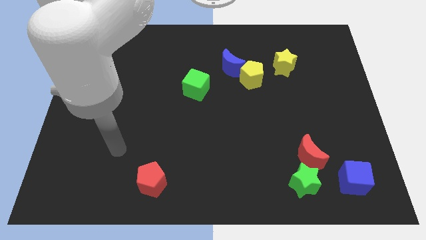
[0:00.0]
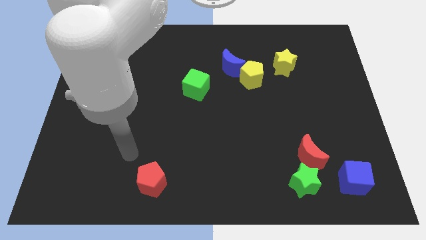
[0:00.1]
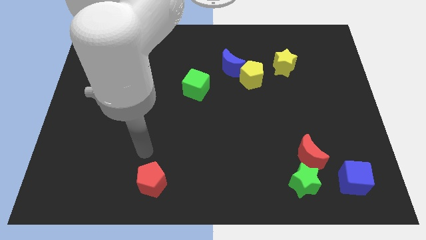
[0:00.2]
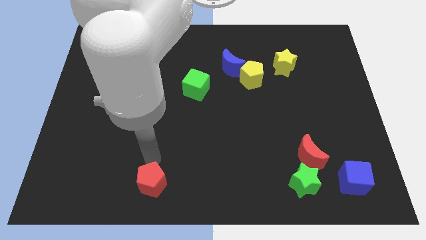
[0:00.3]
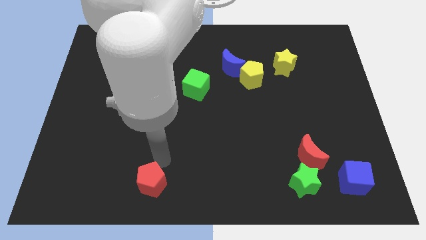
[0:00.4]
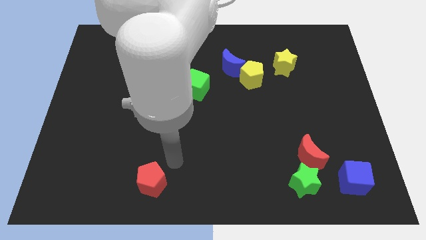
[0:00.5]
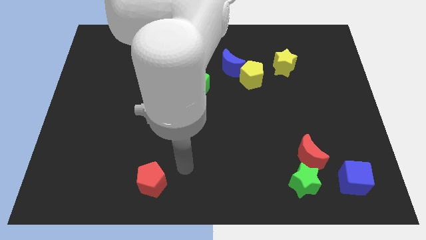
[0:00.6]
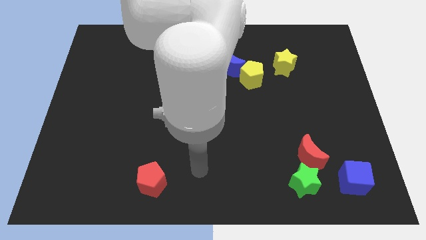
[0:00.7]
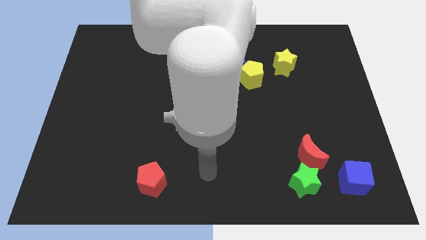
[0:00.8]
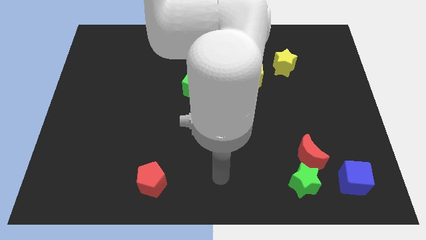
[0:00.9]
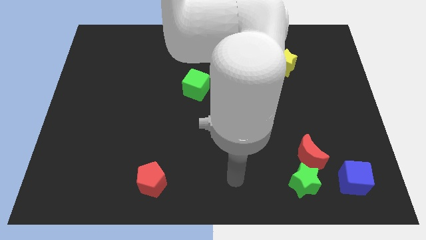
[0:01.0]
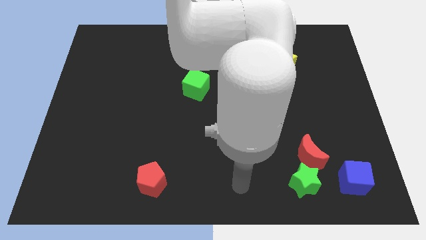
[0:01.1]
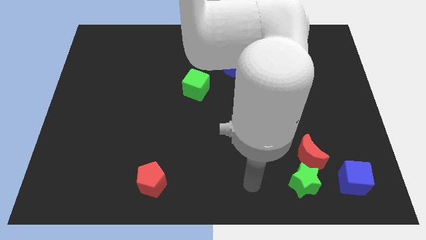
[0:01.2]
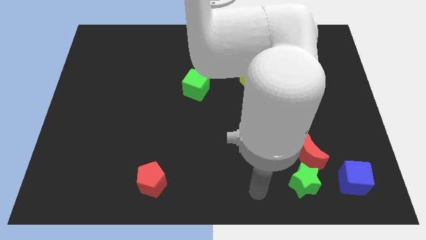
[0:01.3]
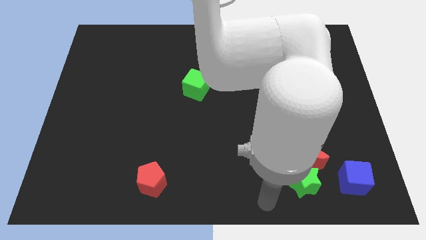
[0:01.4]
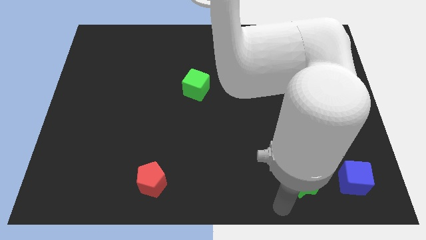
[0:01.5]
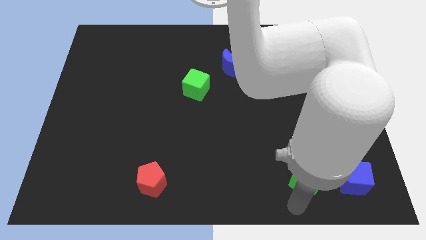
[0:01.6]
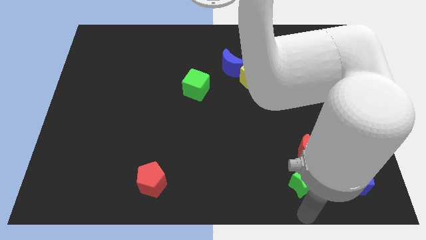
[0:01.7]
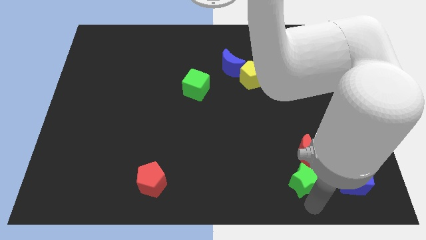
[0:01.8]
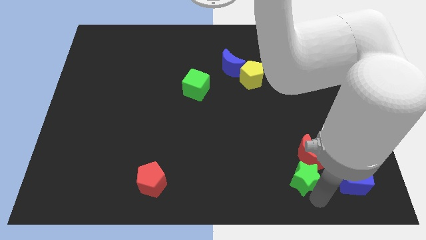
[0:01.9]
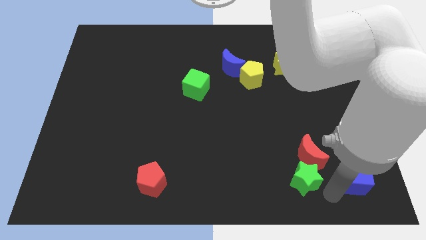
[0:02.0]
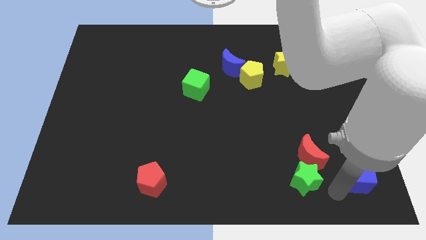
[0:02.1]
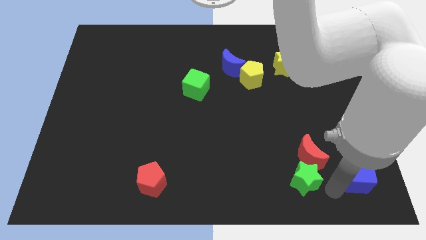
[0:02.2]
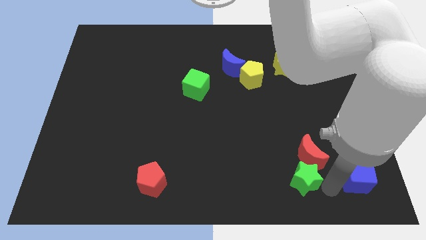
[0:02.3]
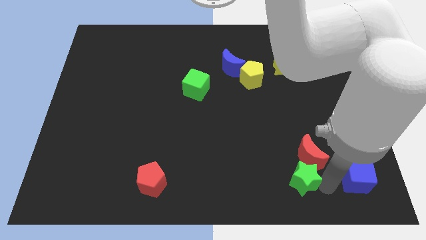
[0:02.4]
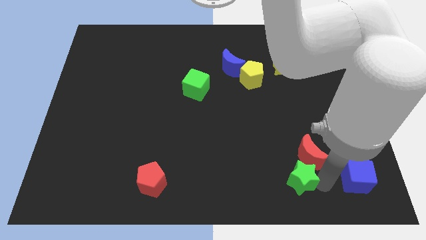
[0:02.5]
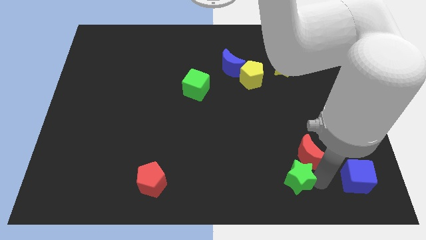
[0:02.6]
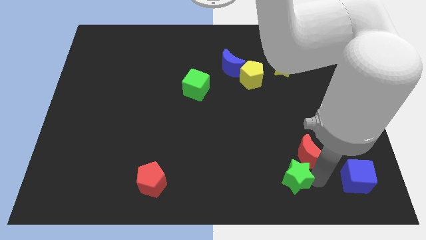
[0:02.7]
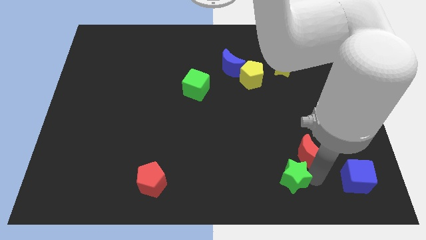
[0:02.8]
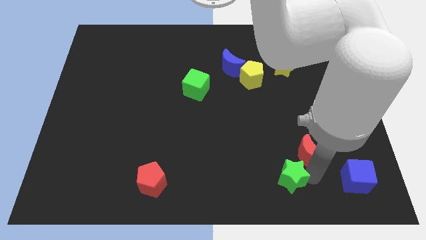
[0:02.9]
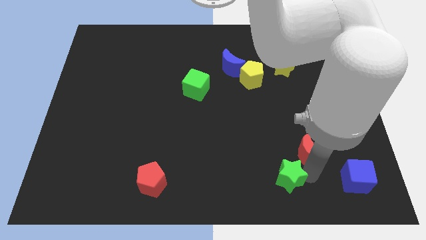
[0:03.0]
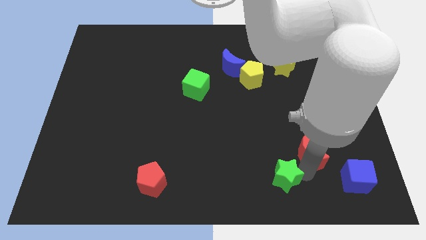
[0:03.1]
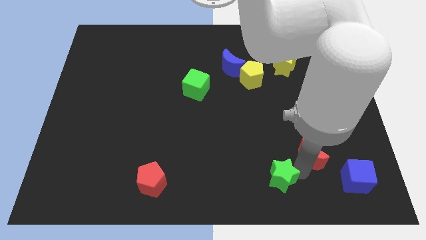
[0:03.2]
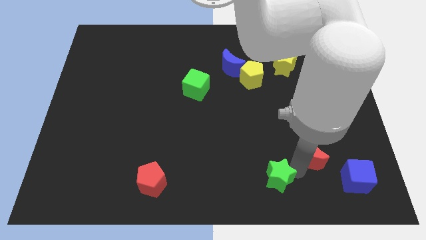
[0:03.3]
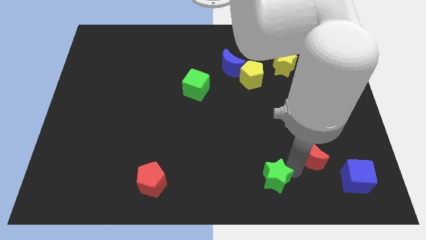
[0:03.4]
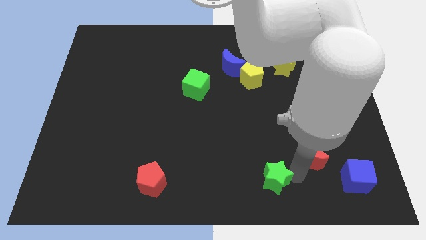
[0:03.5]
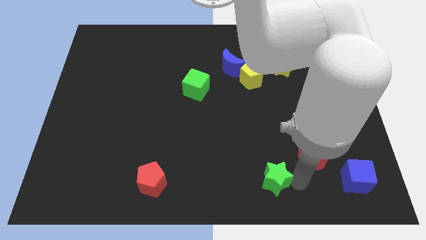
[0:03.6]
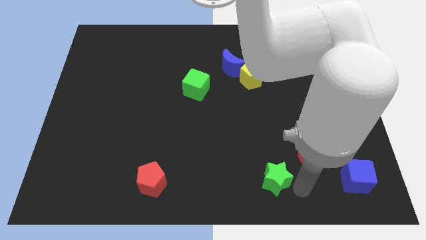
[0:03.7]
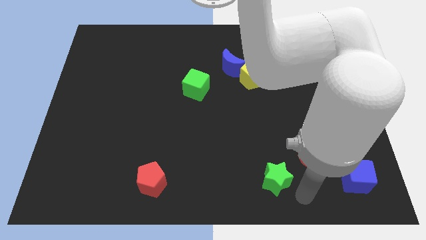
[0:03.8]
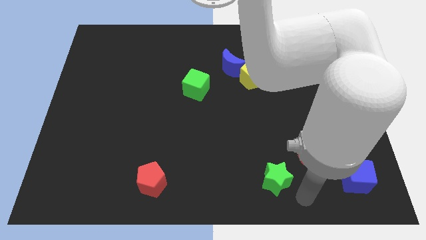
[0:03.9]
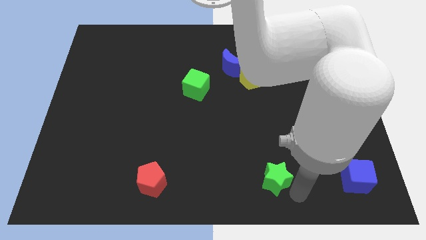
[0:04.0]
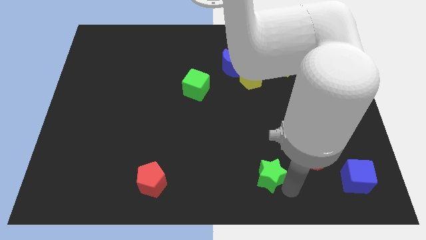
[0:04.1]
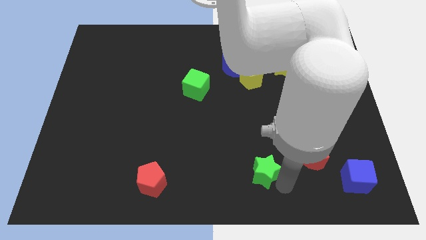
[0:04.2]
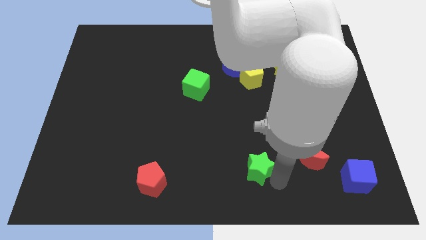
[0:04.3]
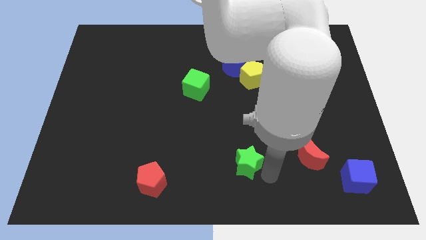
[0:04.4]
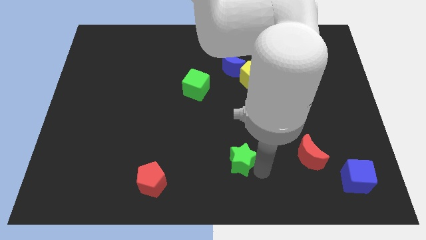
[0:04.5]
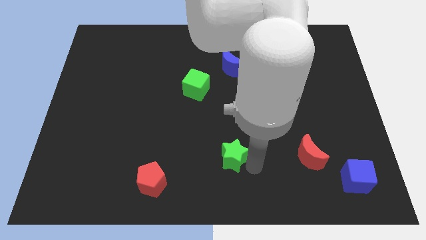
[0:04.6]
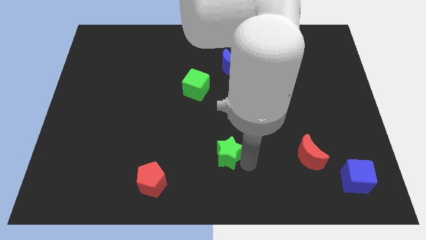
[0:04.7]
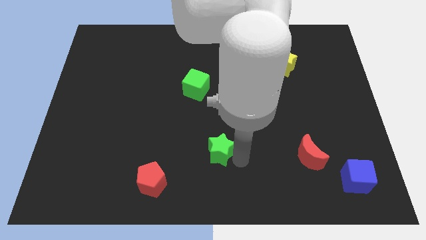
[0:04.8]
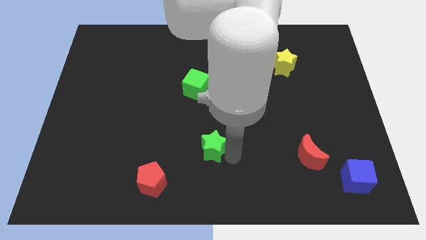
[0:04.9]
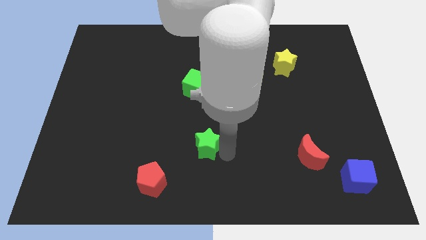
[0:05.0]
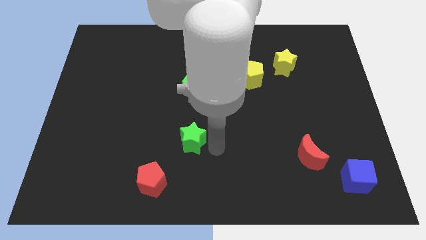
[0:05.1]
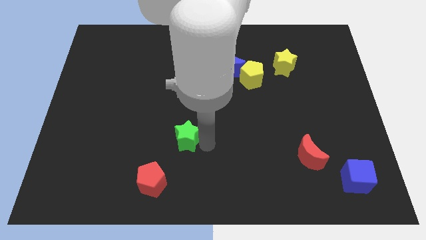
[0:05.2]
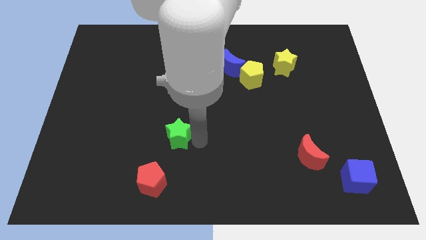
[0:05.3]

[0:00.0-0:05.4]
slide the green star to the top side of the red pentagon

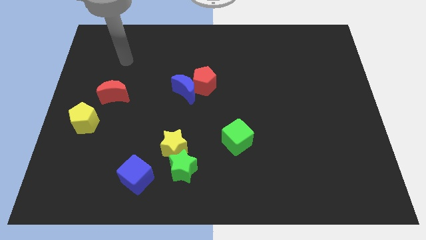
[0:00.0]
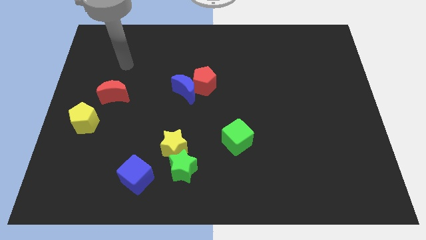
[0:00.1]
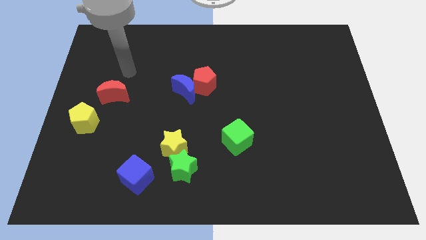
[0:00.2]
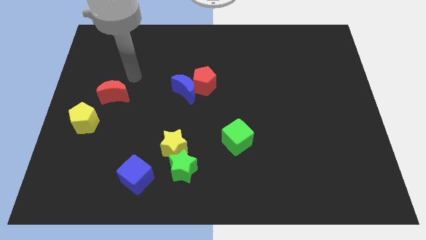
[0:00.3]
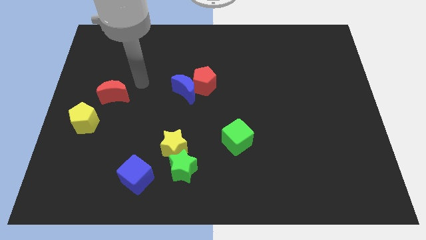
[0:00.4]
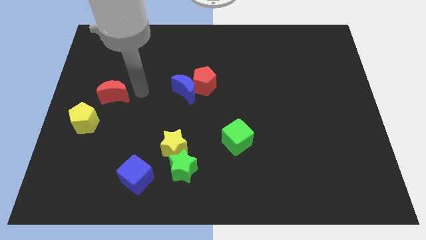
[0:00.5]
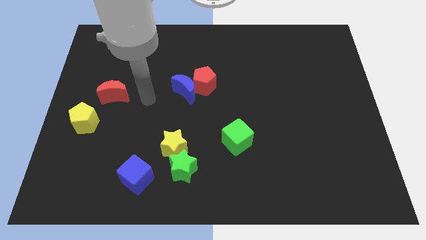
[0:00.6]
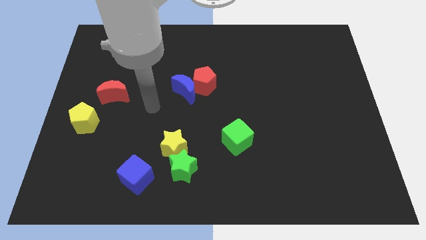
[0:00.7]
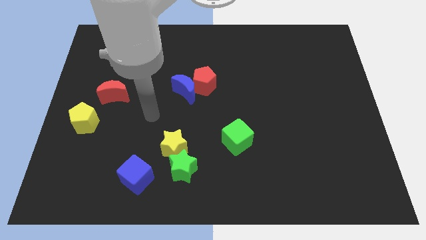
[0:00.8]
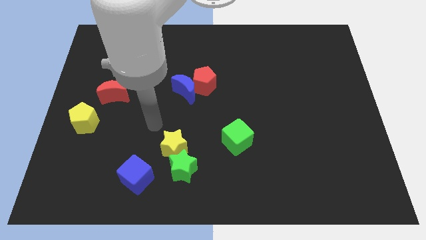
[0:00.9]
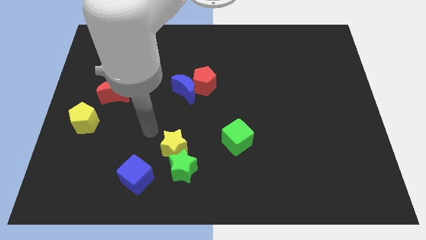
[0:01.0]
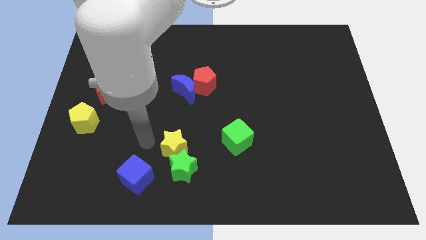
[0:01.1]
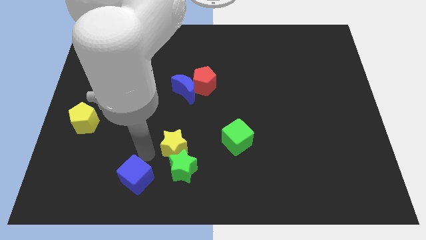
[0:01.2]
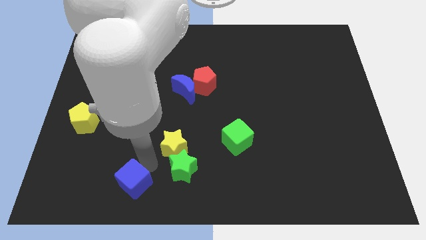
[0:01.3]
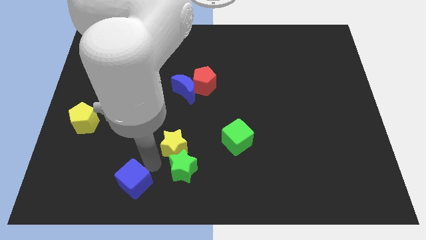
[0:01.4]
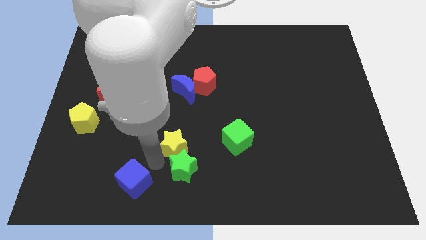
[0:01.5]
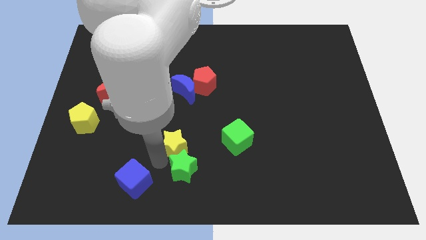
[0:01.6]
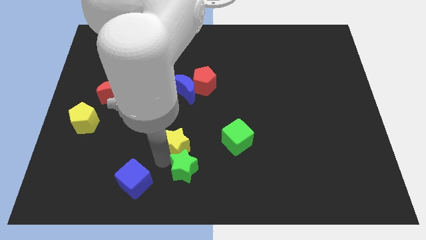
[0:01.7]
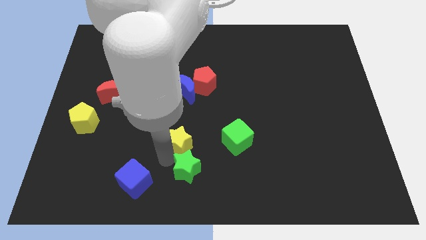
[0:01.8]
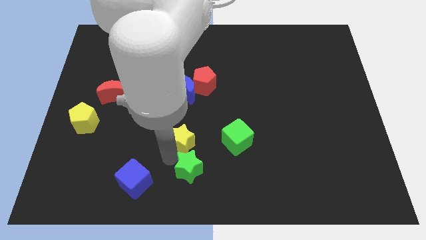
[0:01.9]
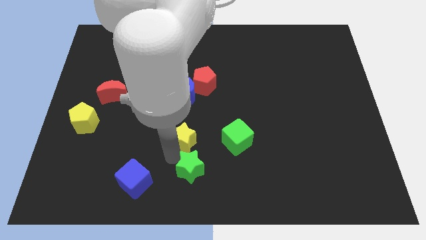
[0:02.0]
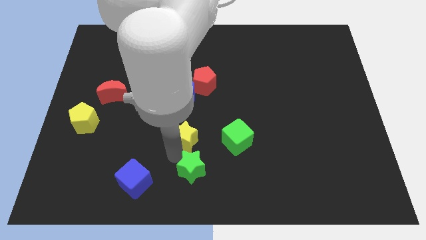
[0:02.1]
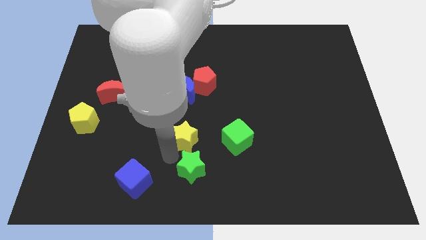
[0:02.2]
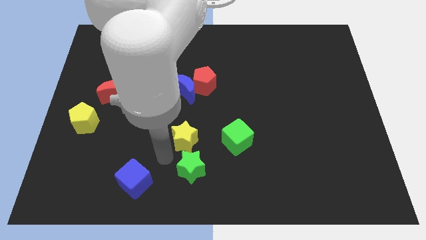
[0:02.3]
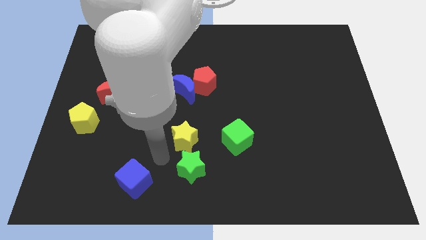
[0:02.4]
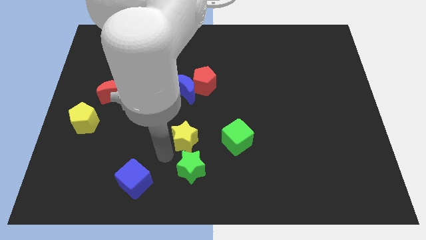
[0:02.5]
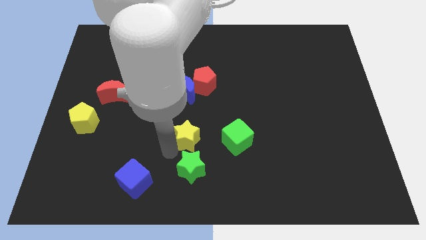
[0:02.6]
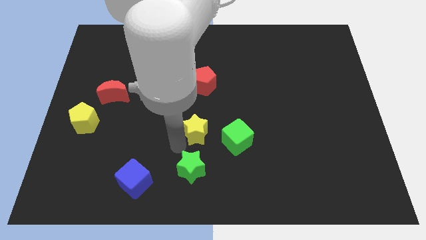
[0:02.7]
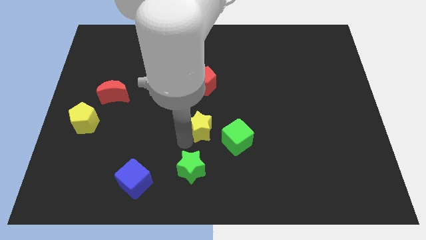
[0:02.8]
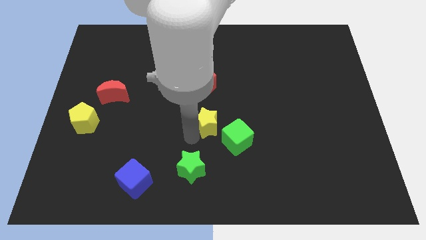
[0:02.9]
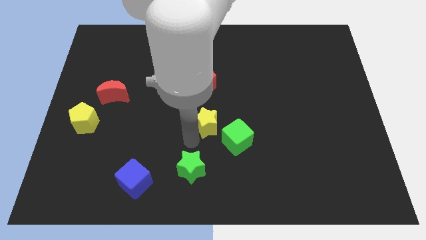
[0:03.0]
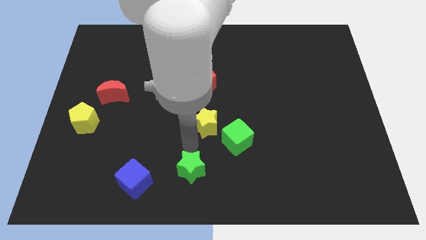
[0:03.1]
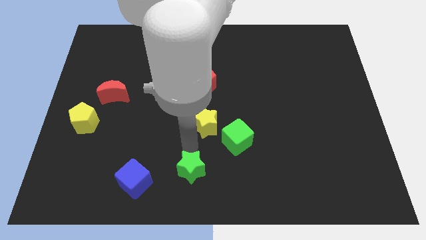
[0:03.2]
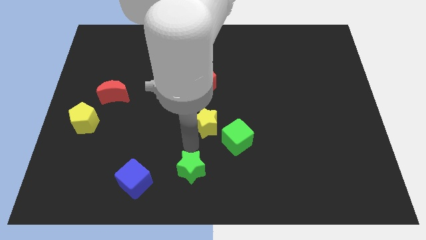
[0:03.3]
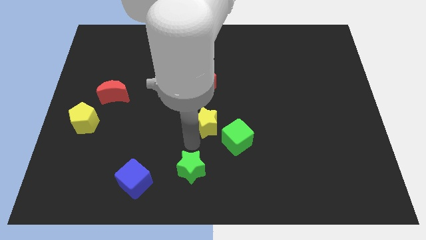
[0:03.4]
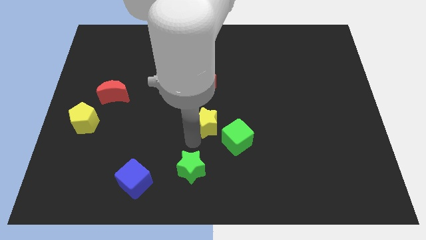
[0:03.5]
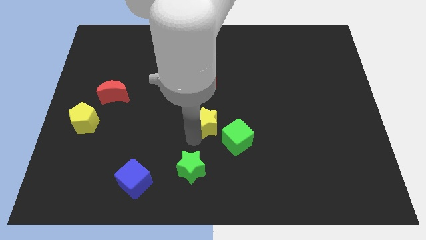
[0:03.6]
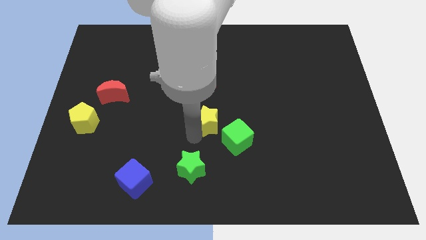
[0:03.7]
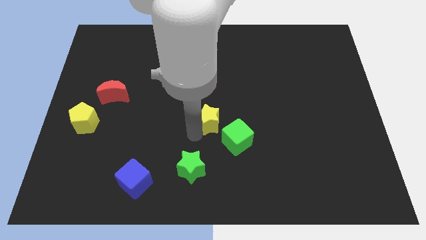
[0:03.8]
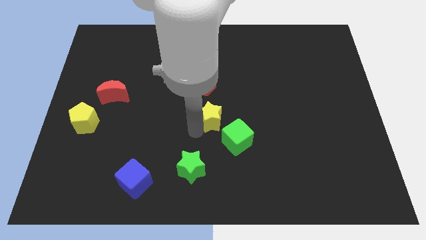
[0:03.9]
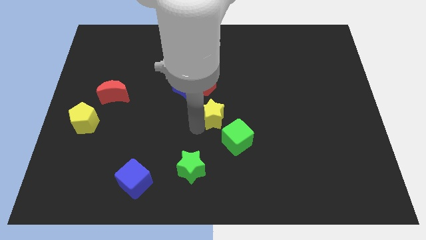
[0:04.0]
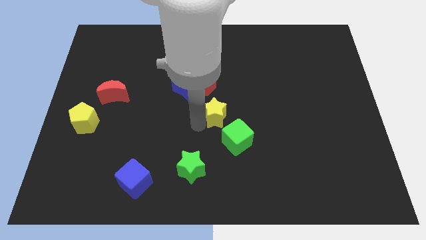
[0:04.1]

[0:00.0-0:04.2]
slide the yellow star to the top side of the green cube
